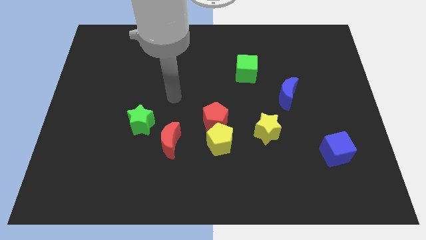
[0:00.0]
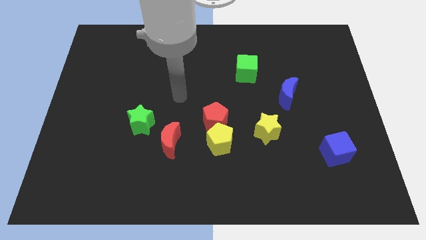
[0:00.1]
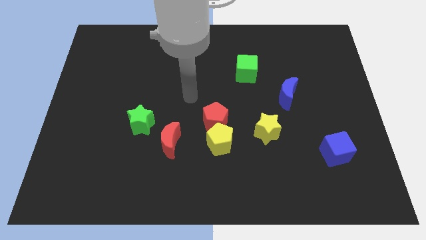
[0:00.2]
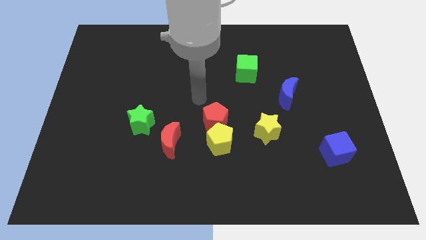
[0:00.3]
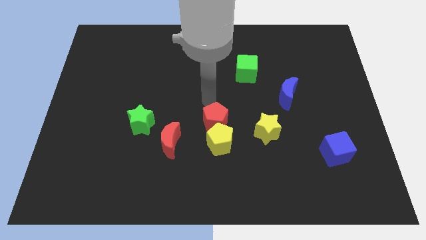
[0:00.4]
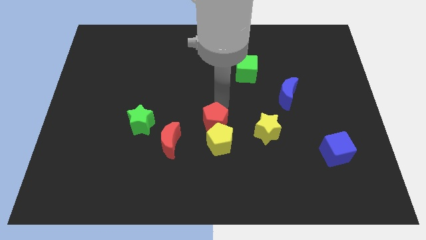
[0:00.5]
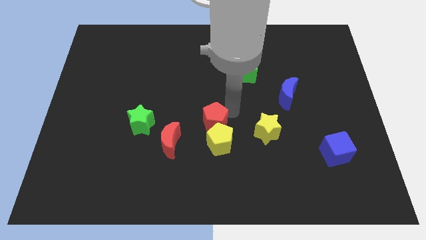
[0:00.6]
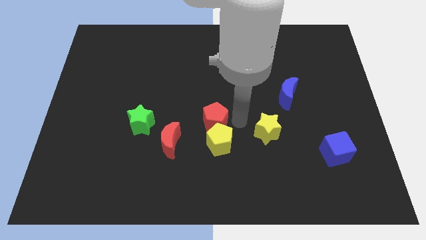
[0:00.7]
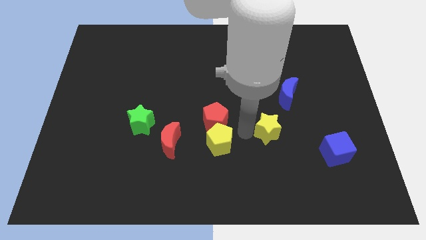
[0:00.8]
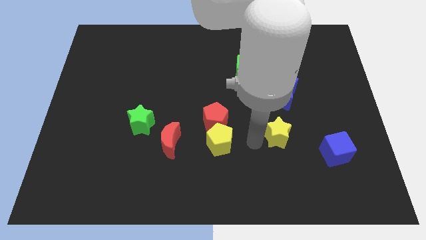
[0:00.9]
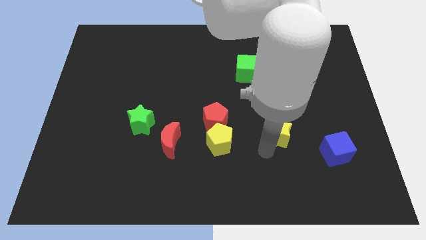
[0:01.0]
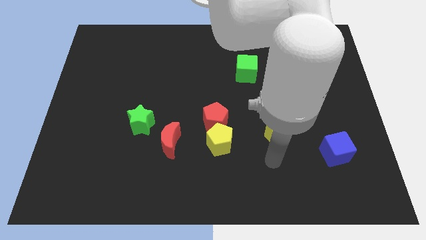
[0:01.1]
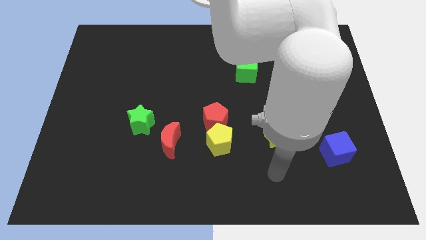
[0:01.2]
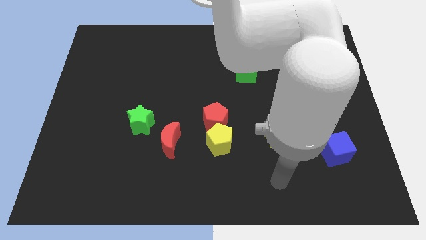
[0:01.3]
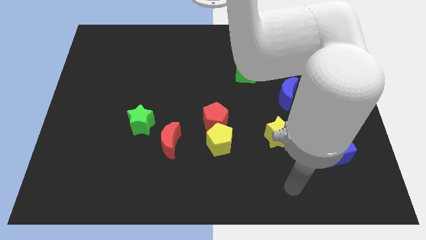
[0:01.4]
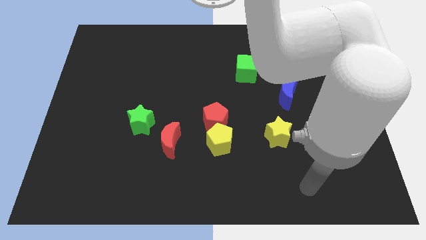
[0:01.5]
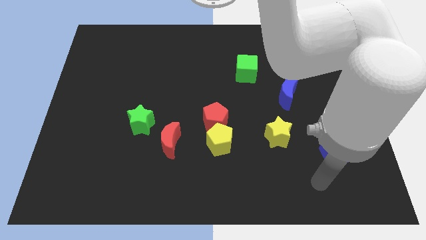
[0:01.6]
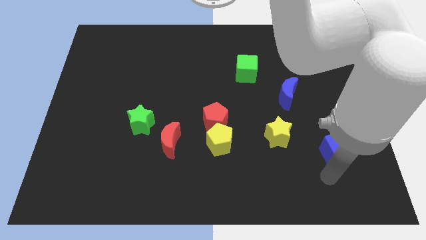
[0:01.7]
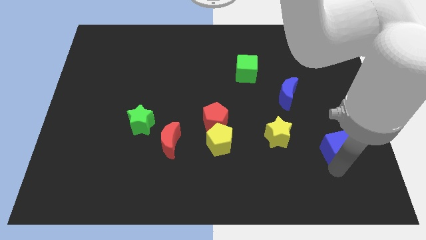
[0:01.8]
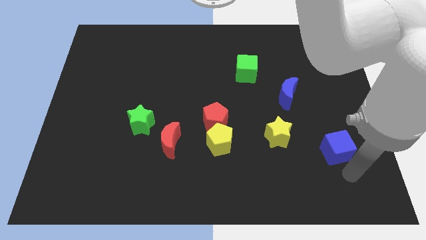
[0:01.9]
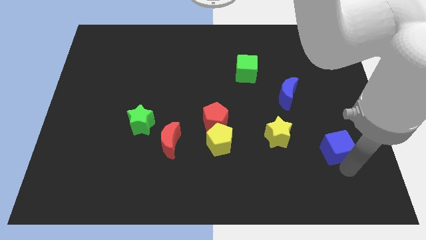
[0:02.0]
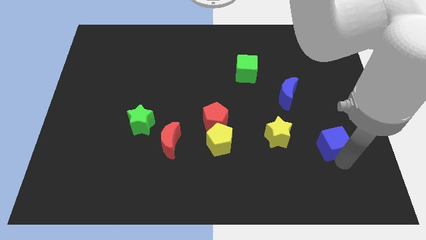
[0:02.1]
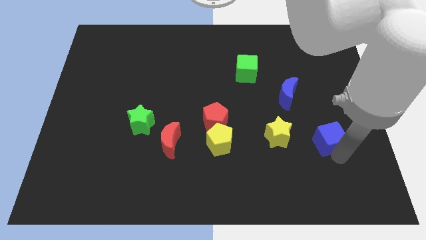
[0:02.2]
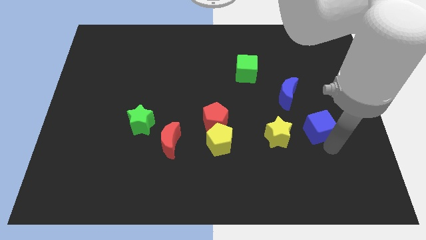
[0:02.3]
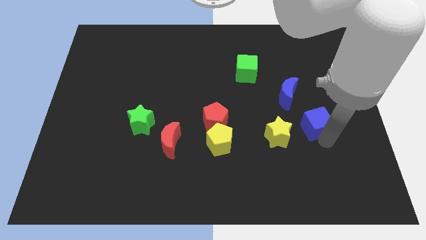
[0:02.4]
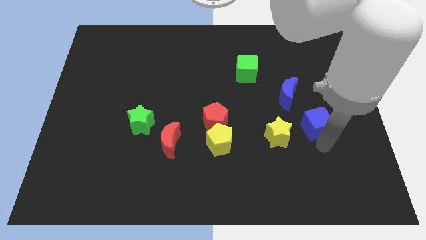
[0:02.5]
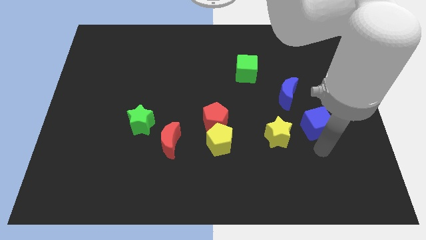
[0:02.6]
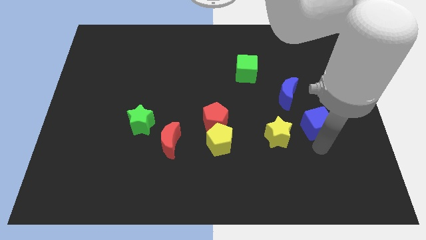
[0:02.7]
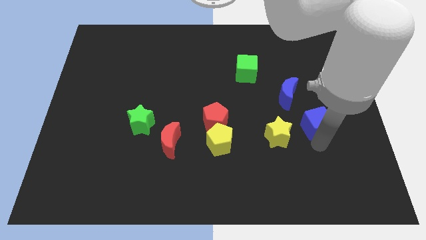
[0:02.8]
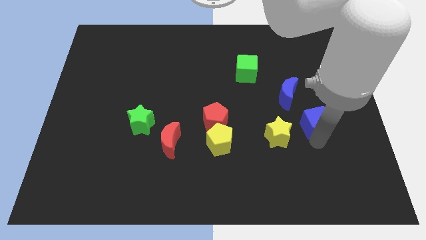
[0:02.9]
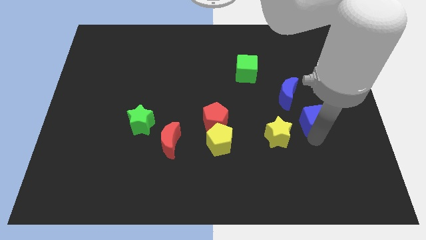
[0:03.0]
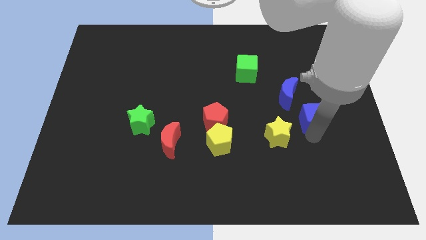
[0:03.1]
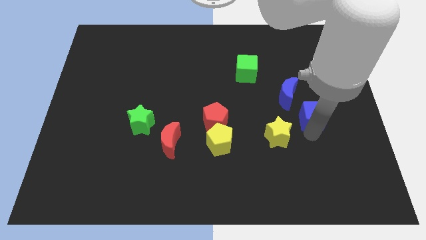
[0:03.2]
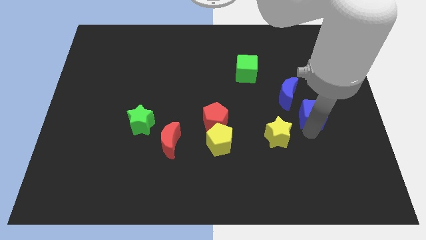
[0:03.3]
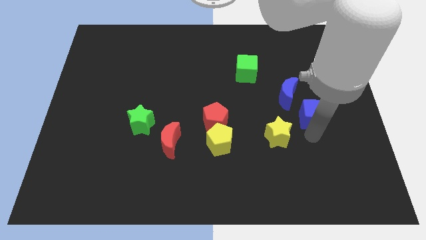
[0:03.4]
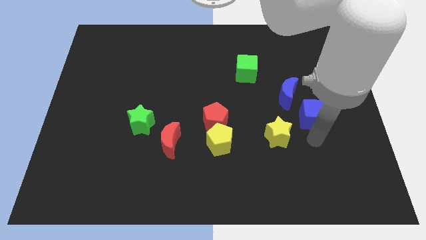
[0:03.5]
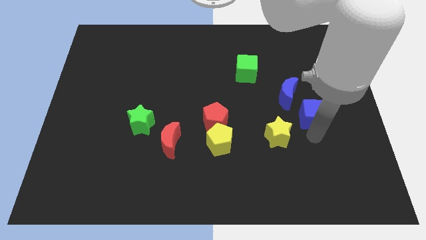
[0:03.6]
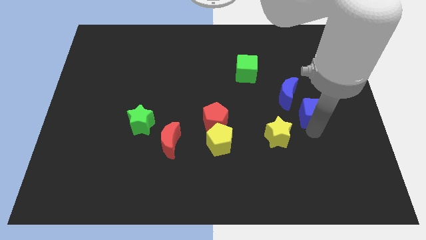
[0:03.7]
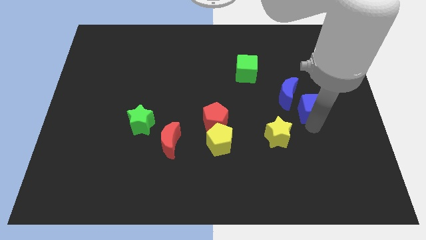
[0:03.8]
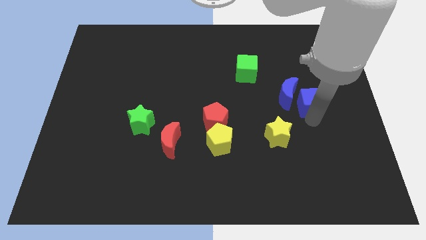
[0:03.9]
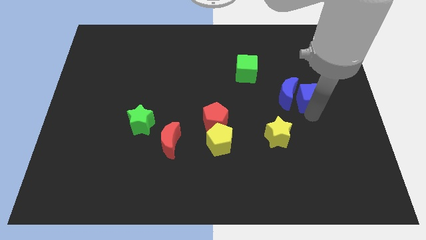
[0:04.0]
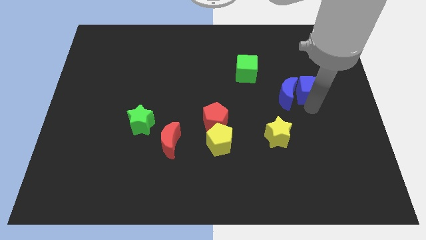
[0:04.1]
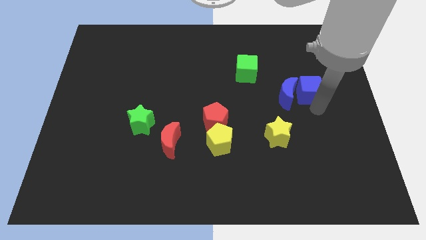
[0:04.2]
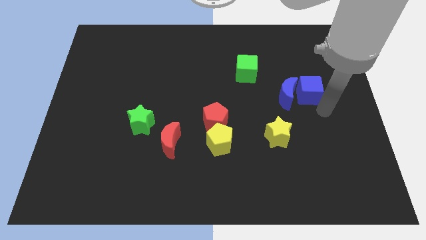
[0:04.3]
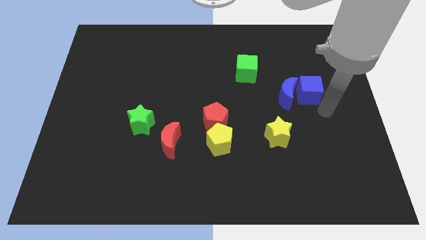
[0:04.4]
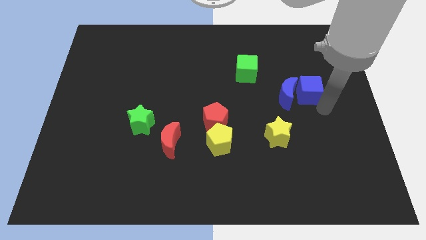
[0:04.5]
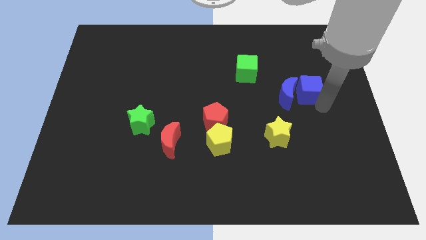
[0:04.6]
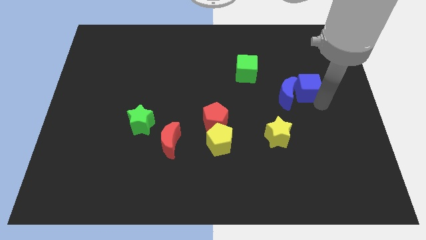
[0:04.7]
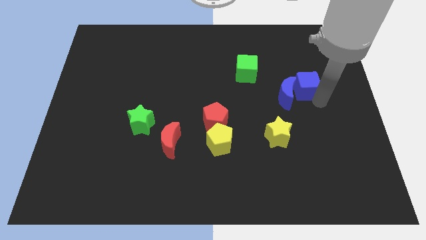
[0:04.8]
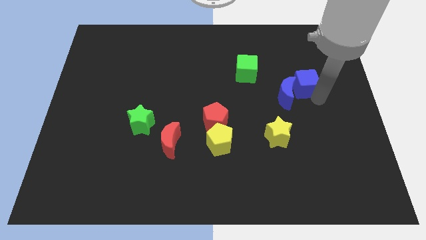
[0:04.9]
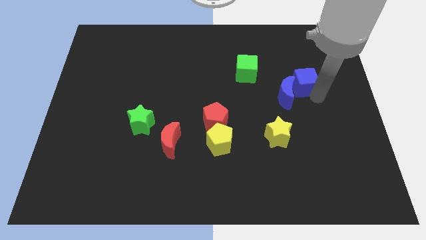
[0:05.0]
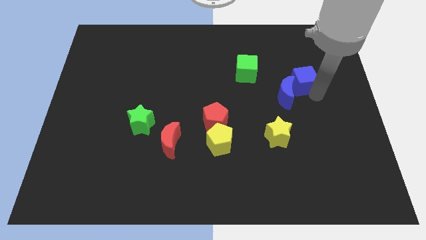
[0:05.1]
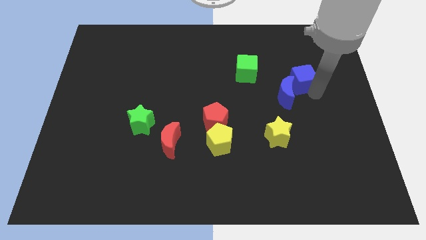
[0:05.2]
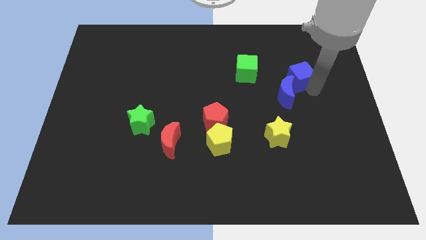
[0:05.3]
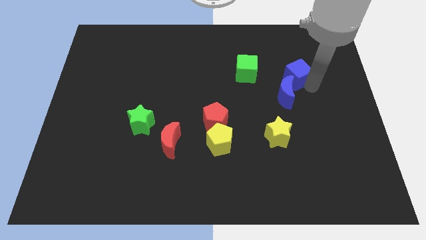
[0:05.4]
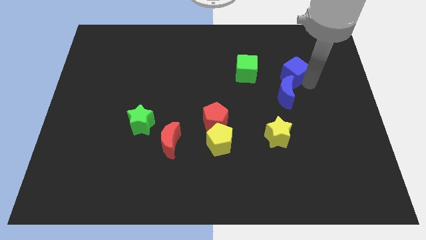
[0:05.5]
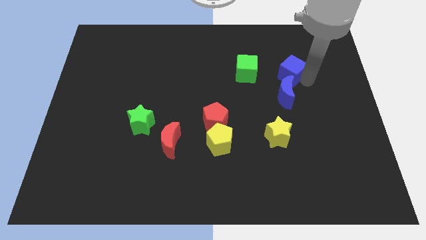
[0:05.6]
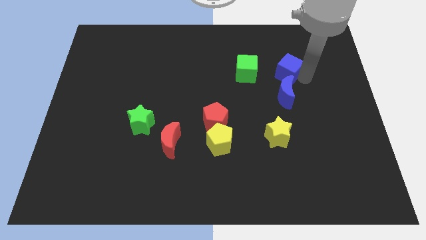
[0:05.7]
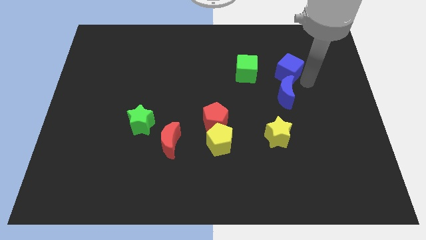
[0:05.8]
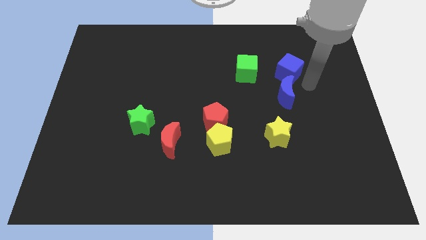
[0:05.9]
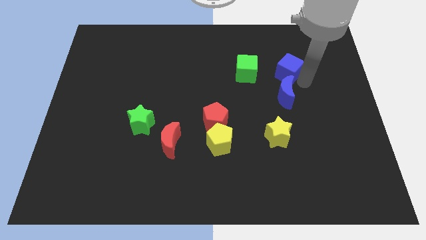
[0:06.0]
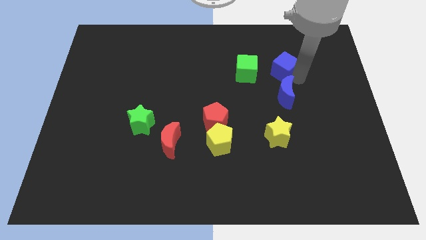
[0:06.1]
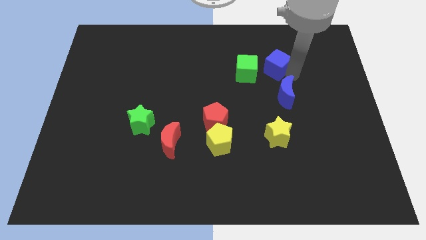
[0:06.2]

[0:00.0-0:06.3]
slide the blue cube to the top right side of the green cube
